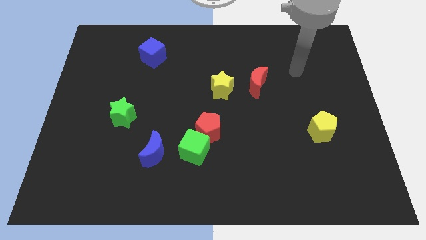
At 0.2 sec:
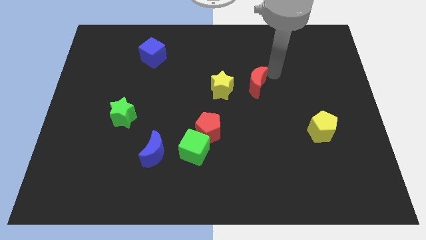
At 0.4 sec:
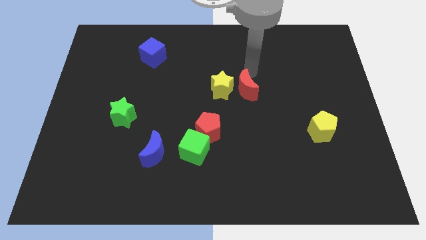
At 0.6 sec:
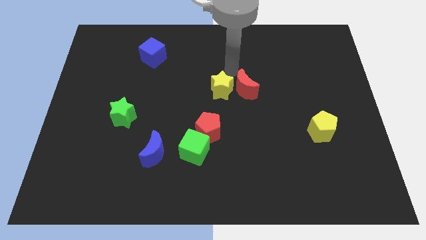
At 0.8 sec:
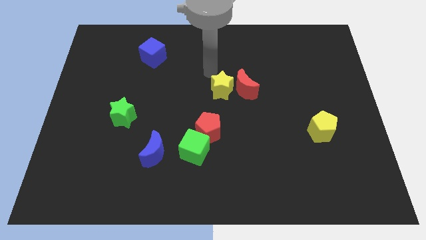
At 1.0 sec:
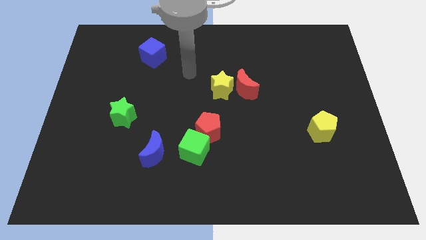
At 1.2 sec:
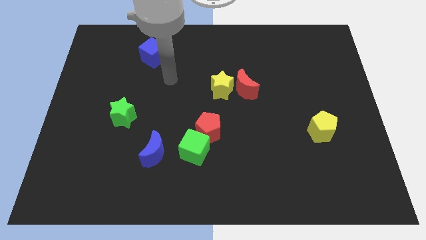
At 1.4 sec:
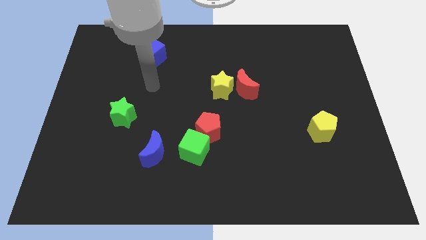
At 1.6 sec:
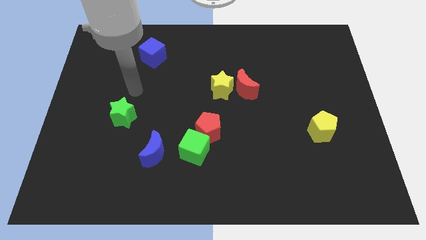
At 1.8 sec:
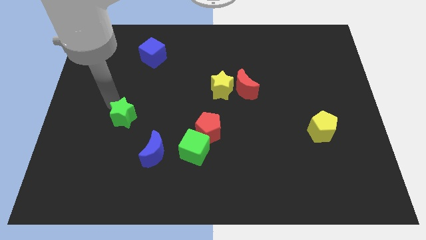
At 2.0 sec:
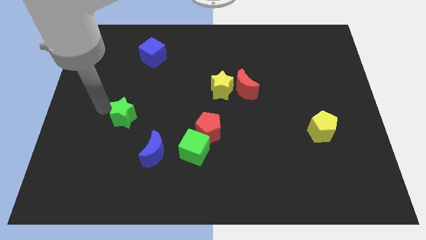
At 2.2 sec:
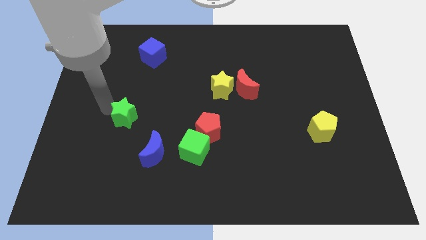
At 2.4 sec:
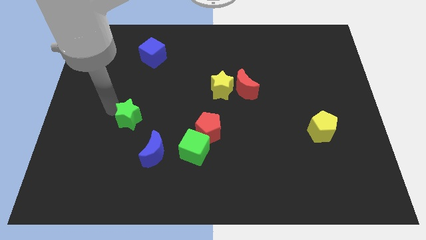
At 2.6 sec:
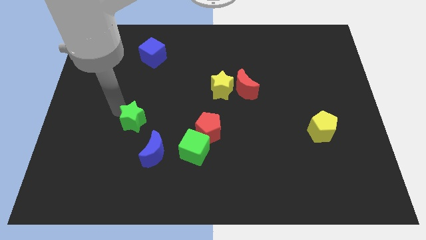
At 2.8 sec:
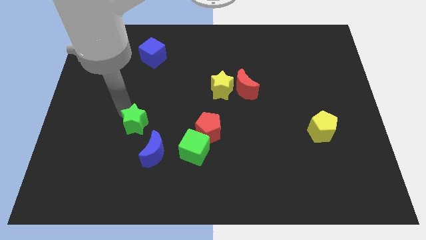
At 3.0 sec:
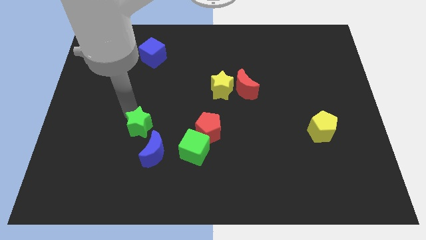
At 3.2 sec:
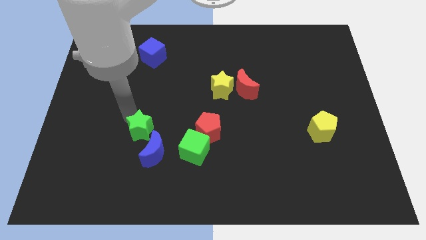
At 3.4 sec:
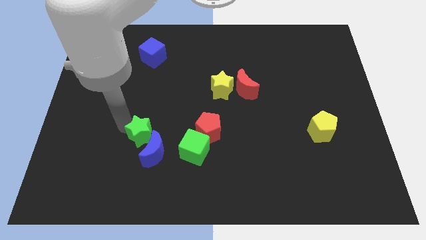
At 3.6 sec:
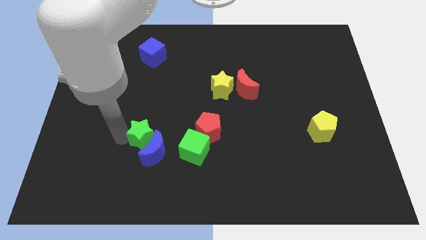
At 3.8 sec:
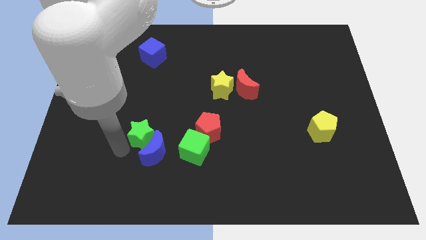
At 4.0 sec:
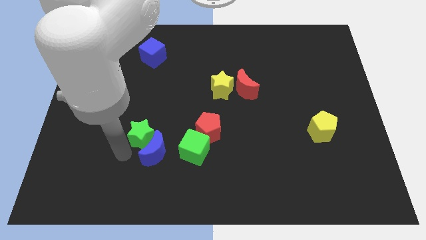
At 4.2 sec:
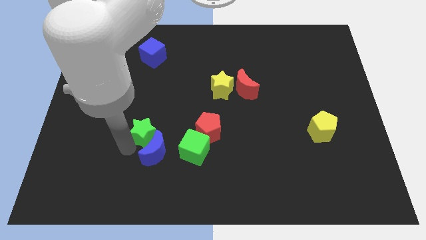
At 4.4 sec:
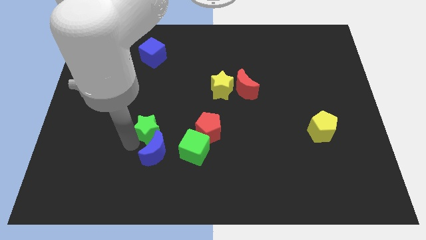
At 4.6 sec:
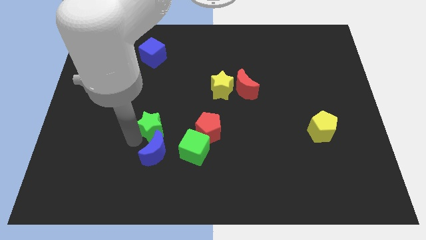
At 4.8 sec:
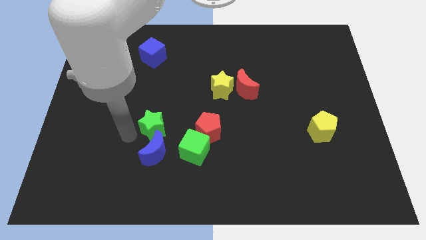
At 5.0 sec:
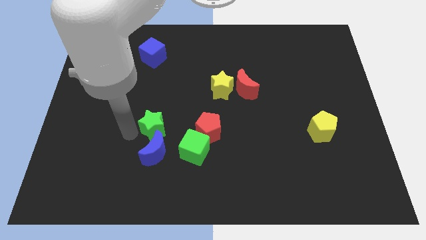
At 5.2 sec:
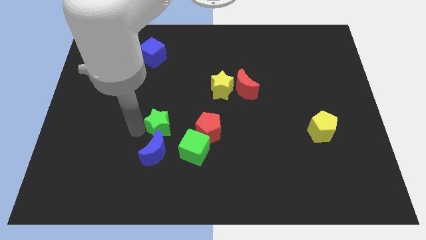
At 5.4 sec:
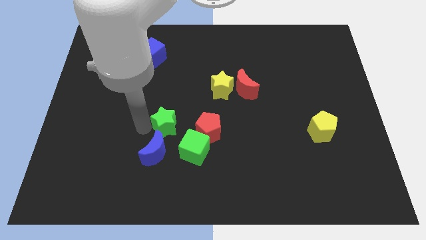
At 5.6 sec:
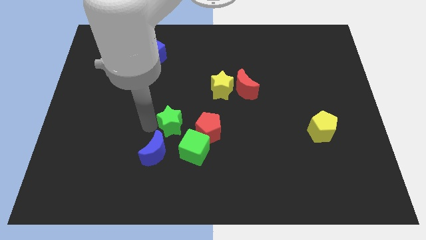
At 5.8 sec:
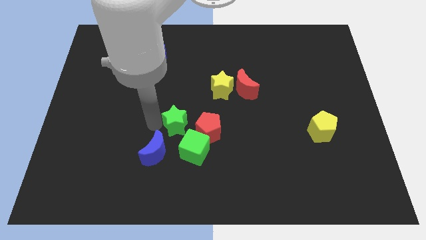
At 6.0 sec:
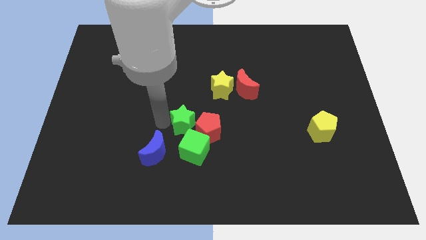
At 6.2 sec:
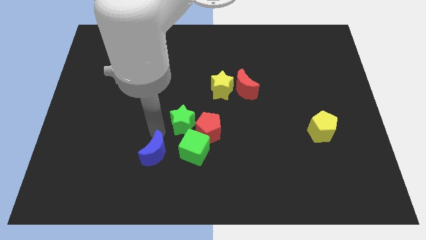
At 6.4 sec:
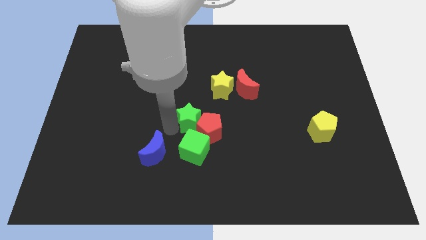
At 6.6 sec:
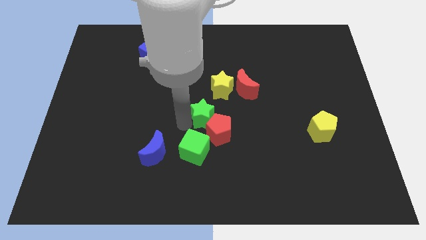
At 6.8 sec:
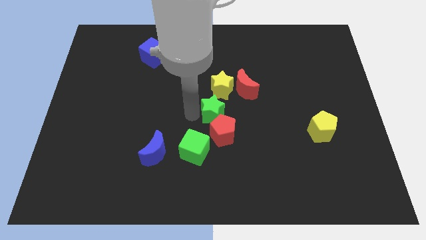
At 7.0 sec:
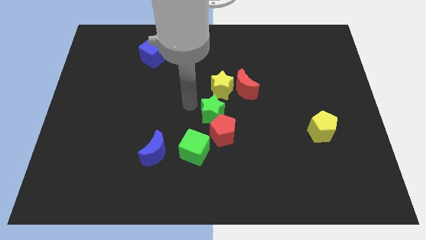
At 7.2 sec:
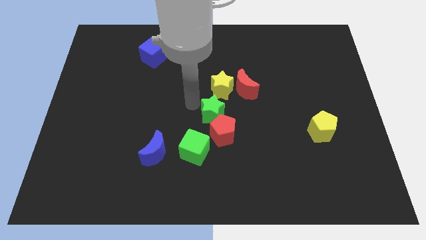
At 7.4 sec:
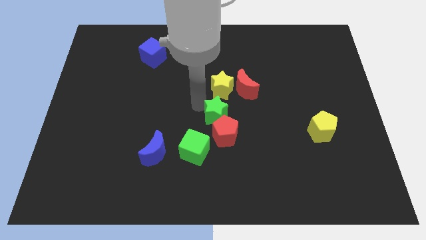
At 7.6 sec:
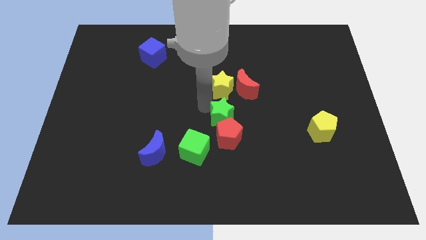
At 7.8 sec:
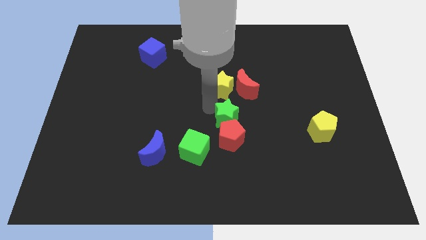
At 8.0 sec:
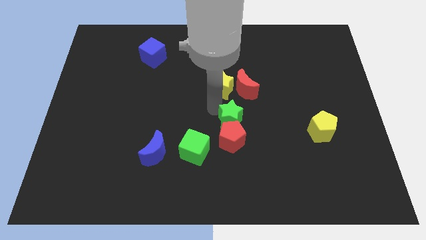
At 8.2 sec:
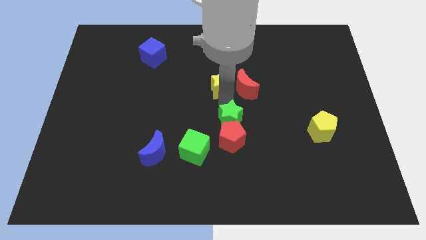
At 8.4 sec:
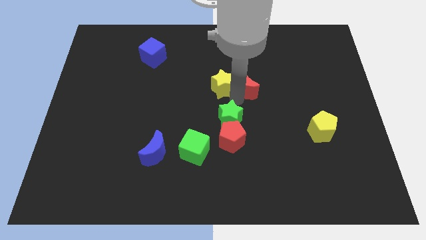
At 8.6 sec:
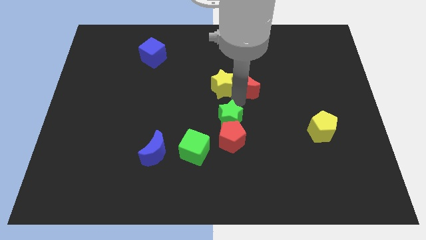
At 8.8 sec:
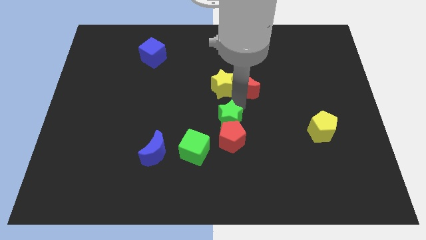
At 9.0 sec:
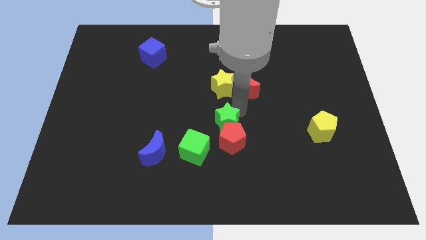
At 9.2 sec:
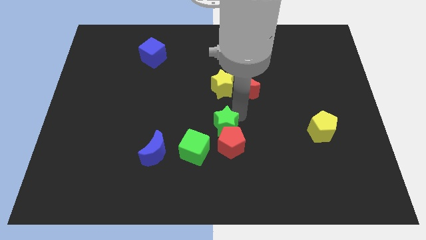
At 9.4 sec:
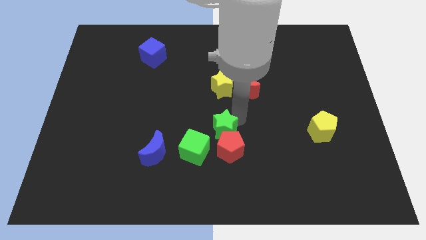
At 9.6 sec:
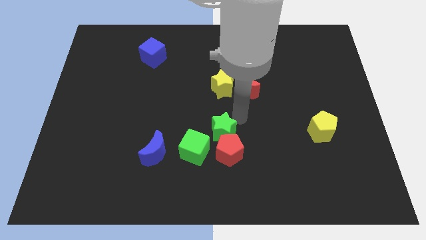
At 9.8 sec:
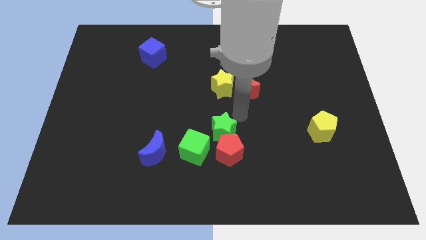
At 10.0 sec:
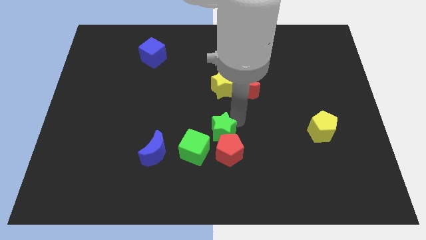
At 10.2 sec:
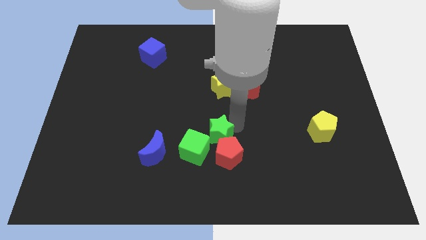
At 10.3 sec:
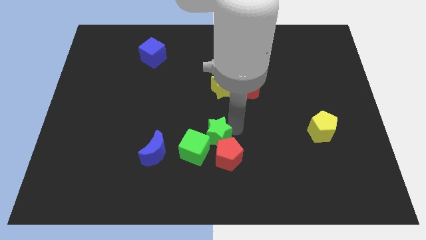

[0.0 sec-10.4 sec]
move the green star just right of the blue moon

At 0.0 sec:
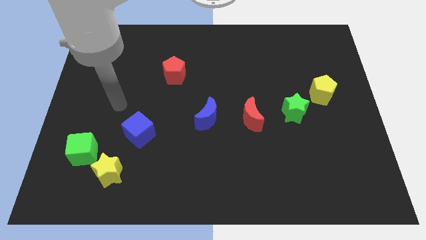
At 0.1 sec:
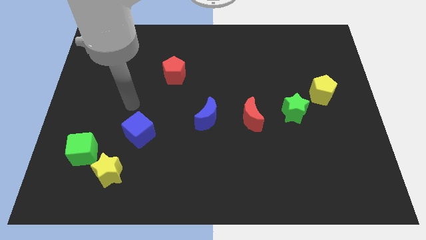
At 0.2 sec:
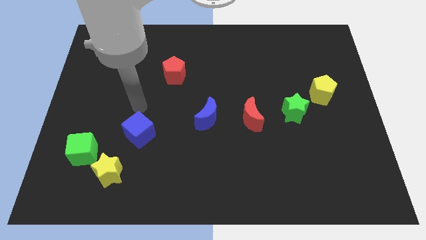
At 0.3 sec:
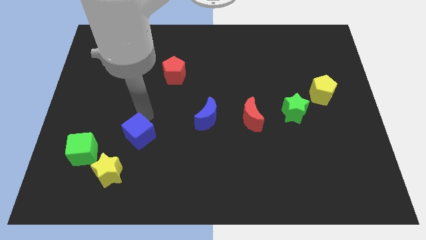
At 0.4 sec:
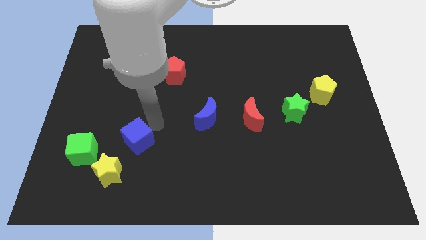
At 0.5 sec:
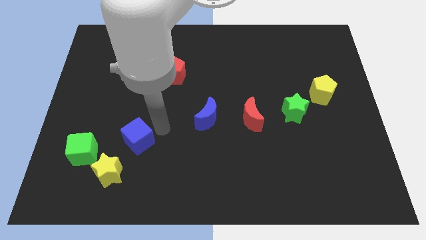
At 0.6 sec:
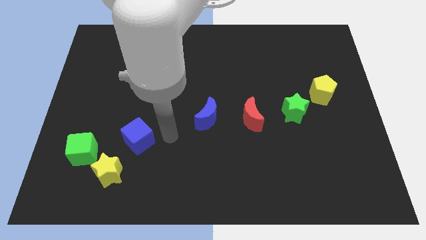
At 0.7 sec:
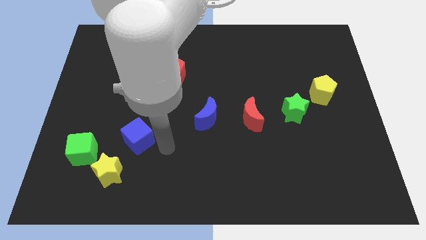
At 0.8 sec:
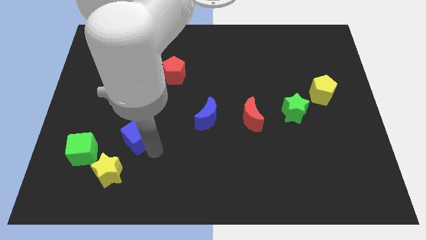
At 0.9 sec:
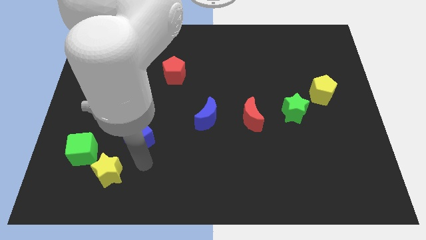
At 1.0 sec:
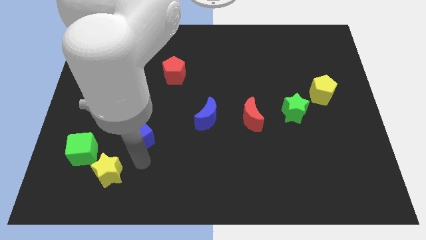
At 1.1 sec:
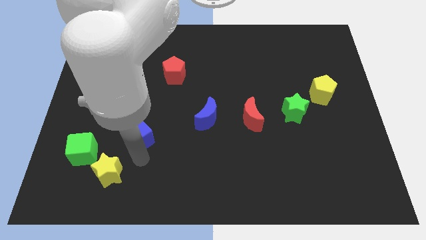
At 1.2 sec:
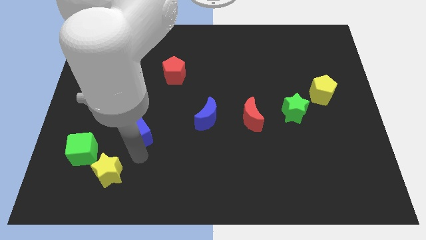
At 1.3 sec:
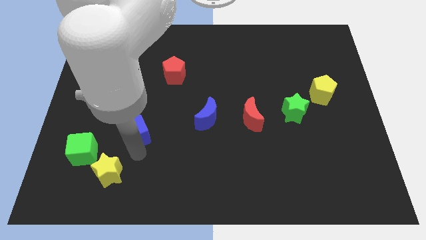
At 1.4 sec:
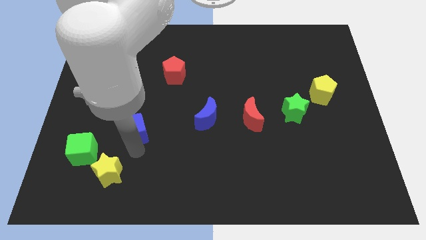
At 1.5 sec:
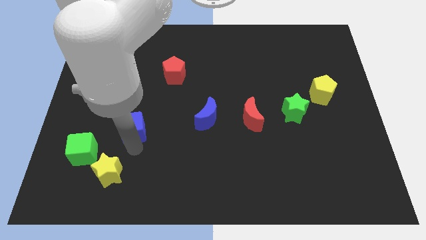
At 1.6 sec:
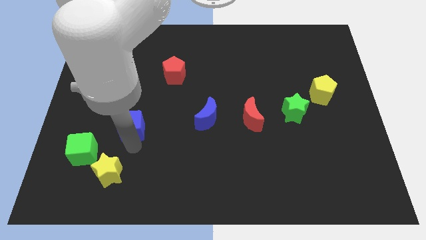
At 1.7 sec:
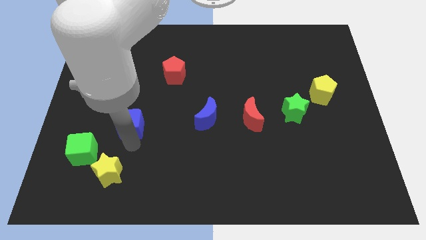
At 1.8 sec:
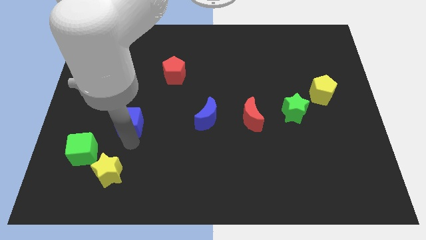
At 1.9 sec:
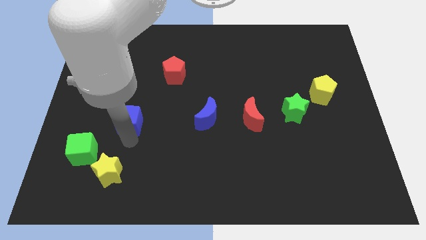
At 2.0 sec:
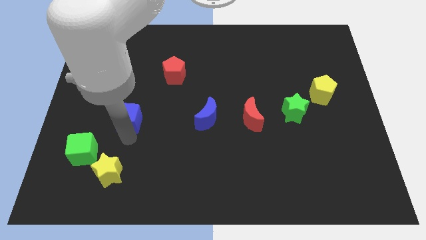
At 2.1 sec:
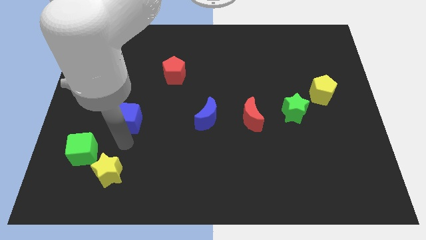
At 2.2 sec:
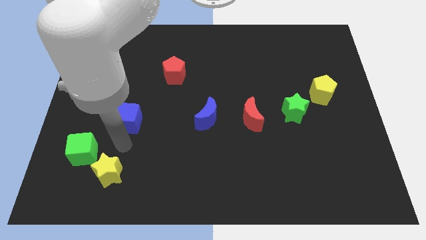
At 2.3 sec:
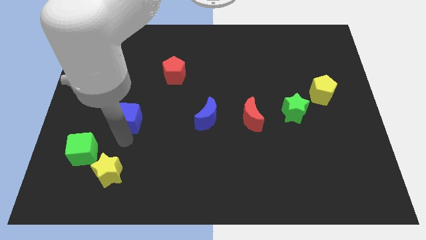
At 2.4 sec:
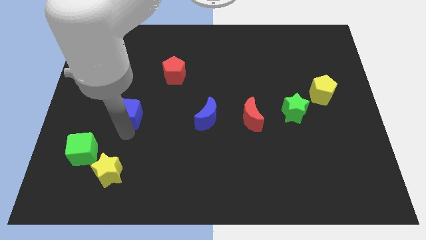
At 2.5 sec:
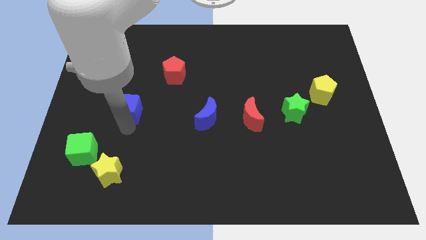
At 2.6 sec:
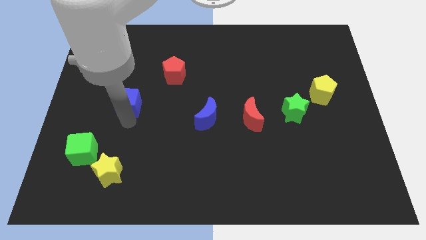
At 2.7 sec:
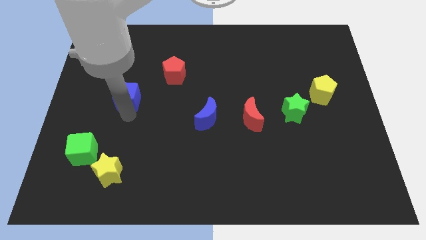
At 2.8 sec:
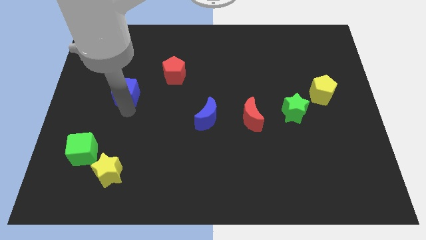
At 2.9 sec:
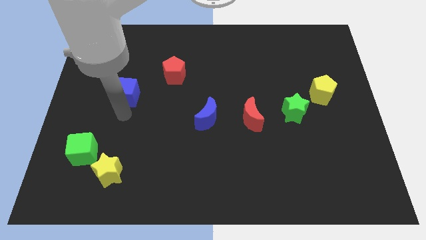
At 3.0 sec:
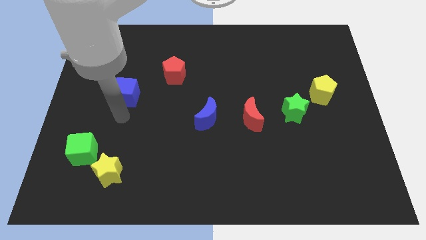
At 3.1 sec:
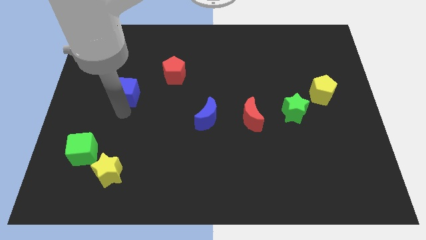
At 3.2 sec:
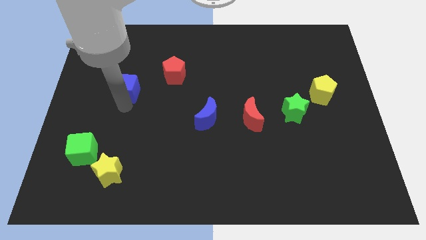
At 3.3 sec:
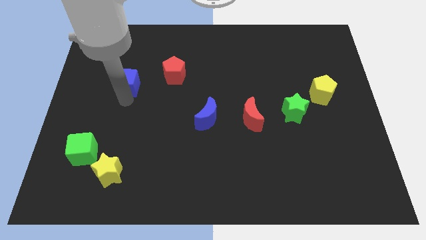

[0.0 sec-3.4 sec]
move the blue cube left of the red pentagon
